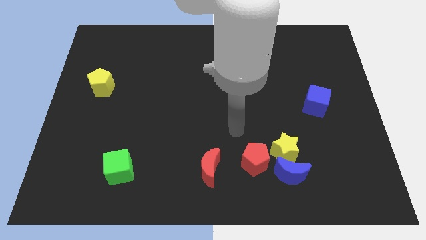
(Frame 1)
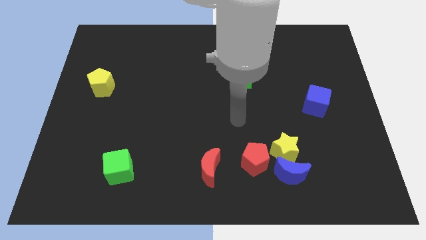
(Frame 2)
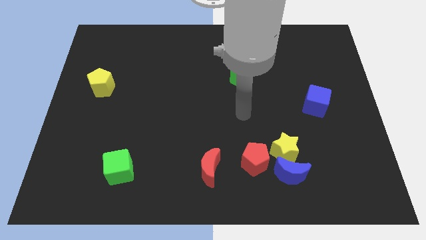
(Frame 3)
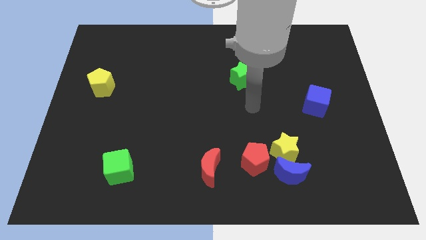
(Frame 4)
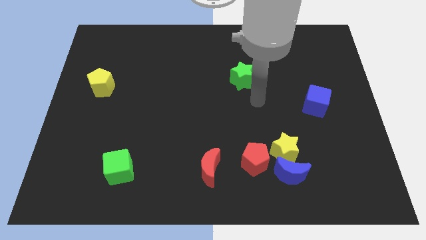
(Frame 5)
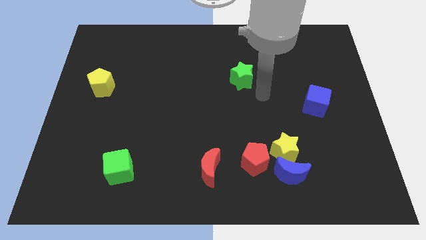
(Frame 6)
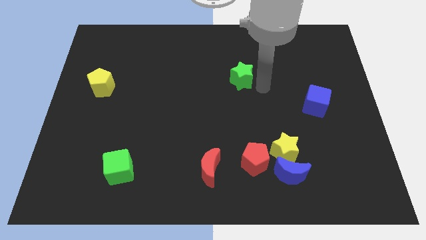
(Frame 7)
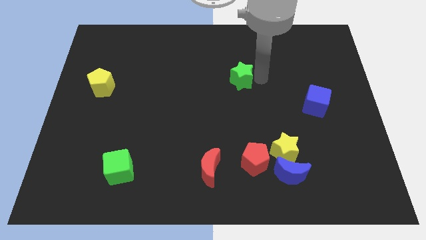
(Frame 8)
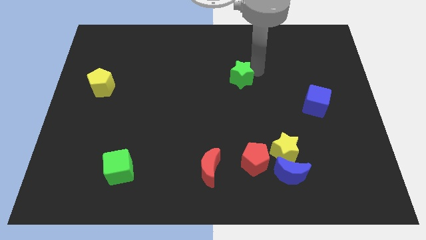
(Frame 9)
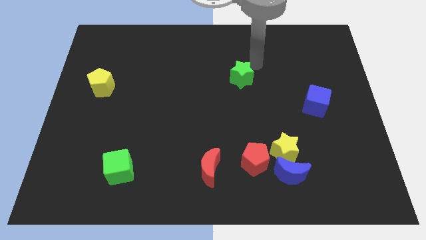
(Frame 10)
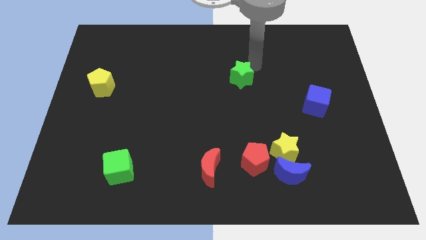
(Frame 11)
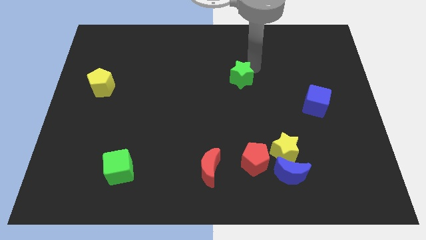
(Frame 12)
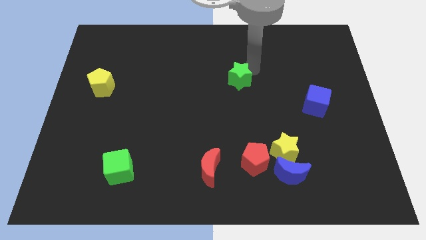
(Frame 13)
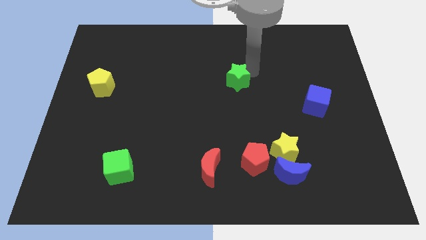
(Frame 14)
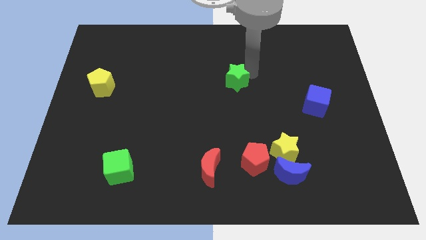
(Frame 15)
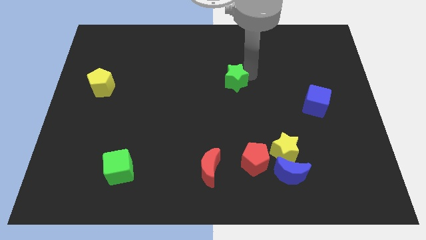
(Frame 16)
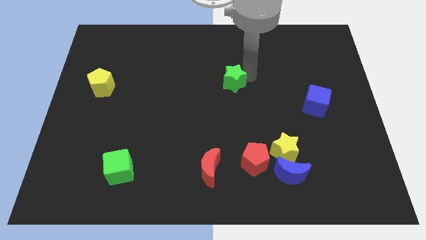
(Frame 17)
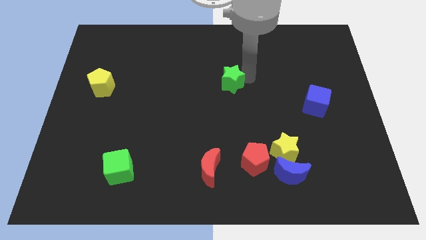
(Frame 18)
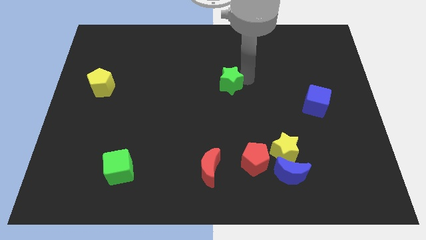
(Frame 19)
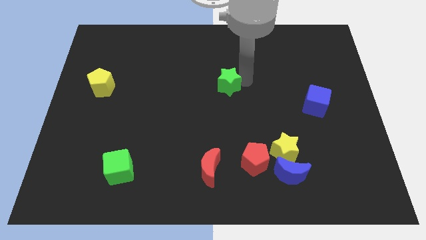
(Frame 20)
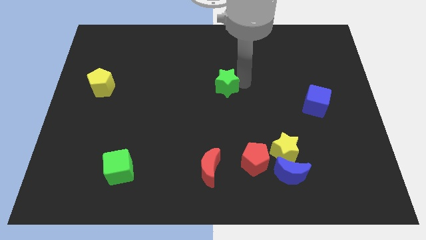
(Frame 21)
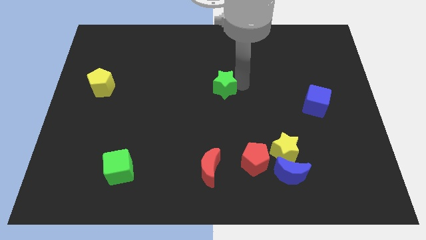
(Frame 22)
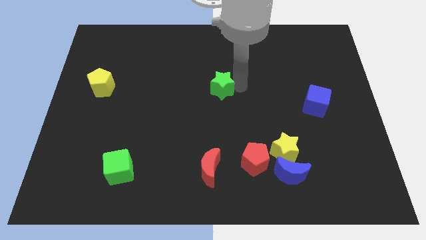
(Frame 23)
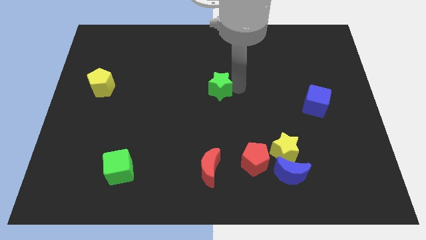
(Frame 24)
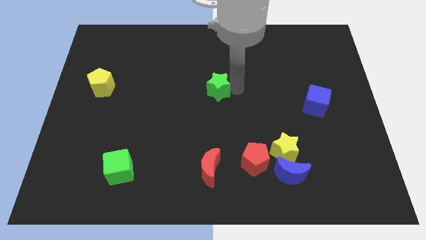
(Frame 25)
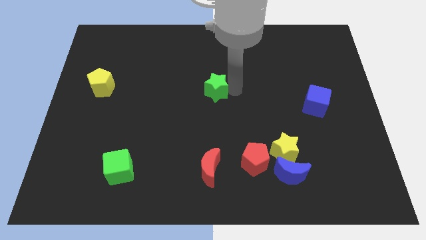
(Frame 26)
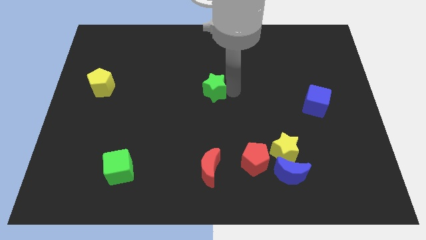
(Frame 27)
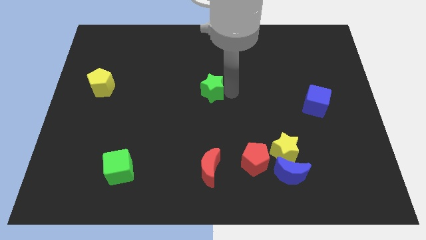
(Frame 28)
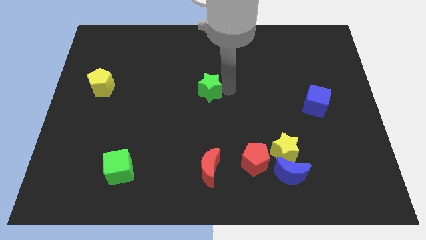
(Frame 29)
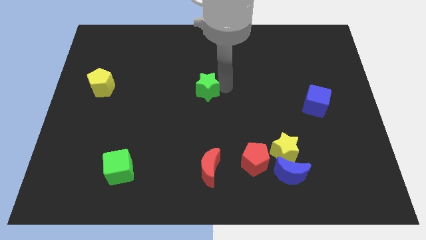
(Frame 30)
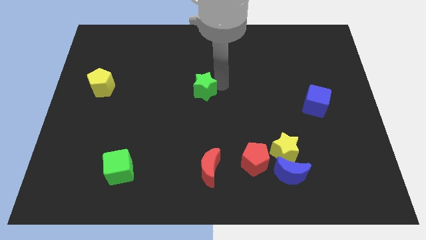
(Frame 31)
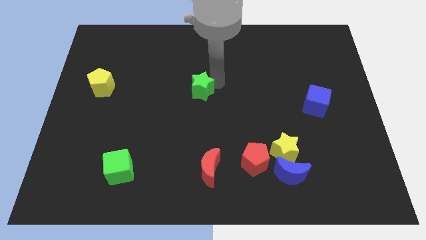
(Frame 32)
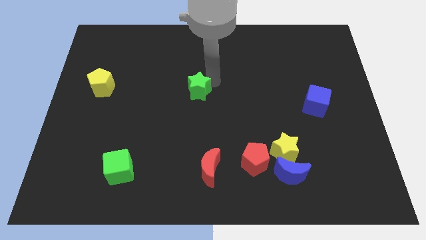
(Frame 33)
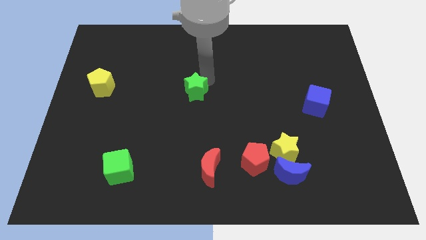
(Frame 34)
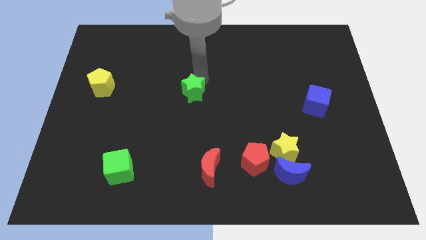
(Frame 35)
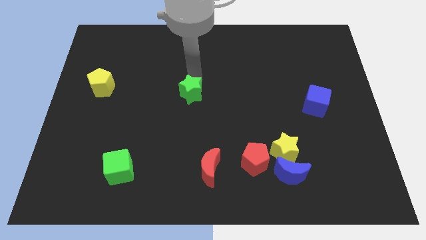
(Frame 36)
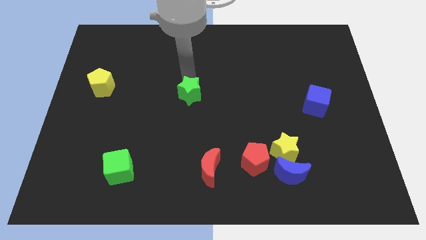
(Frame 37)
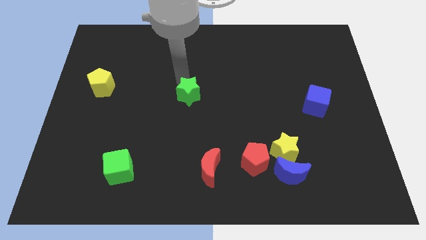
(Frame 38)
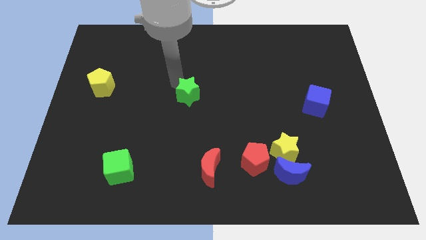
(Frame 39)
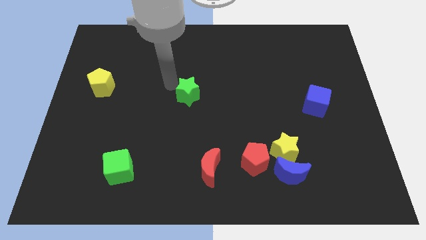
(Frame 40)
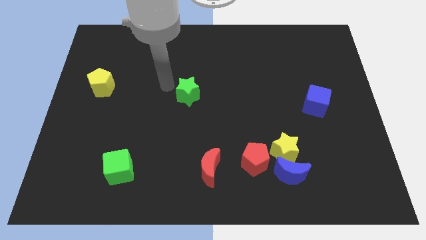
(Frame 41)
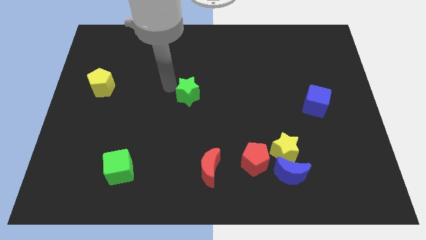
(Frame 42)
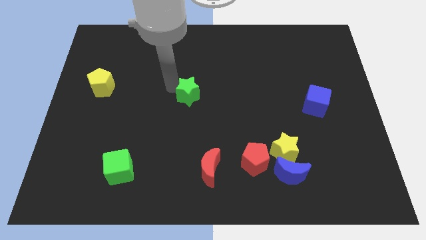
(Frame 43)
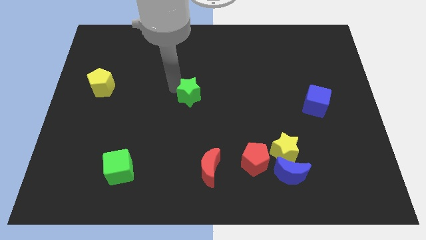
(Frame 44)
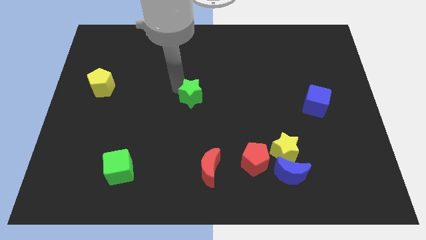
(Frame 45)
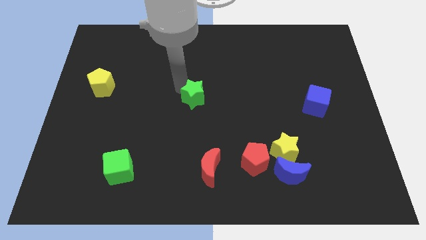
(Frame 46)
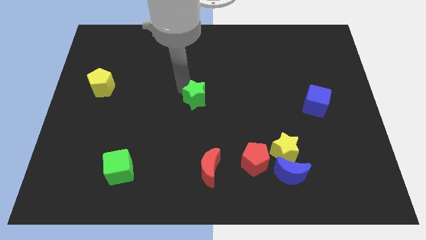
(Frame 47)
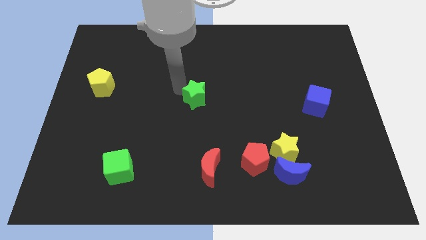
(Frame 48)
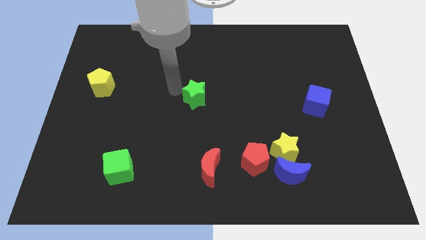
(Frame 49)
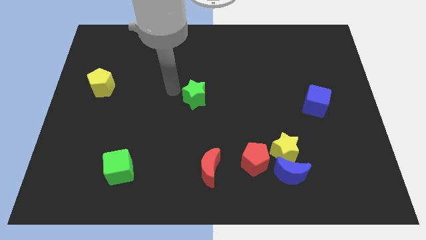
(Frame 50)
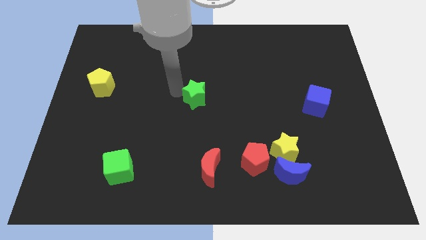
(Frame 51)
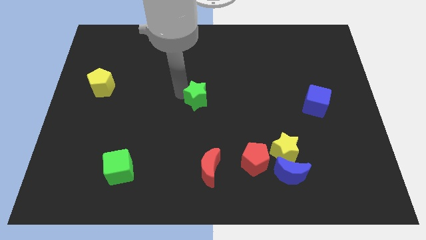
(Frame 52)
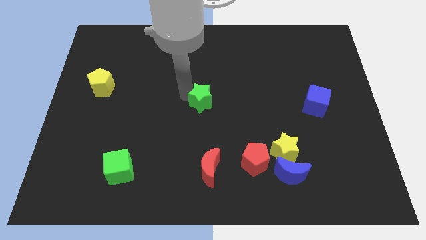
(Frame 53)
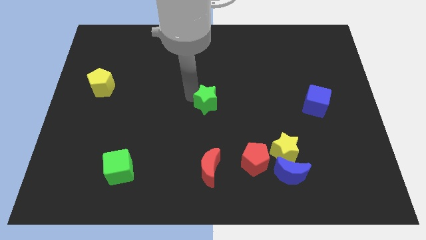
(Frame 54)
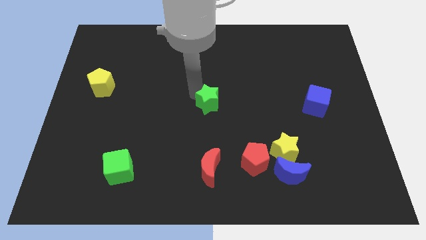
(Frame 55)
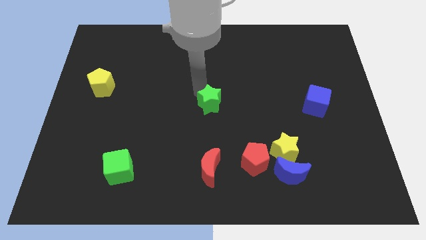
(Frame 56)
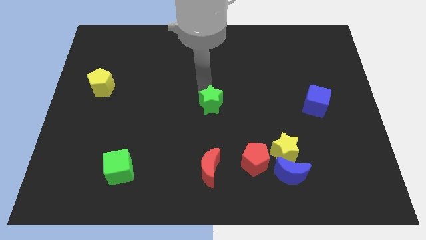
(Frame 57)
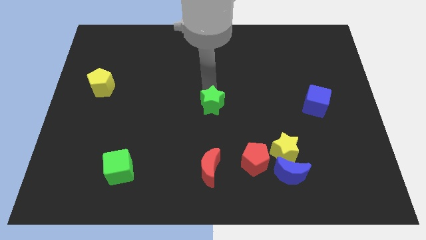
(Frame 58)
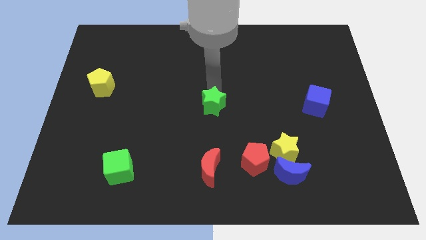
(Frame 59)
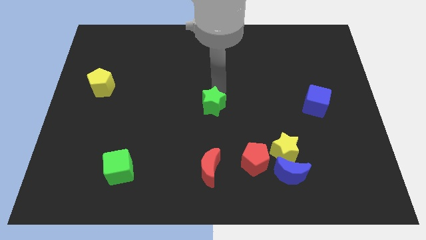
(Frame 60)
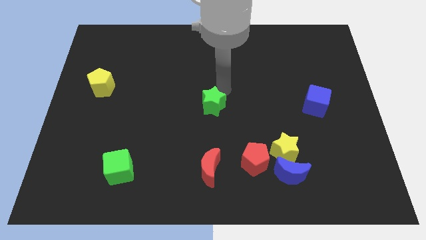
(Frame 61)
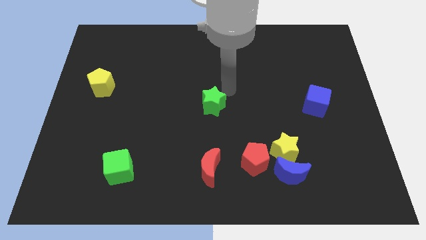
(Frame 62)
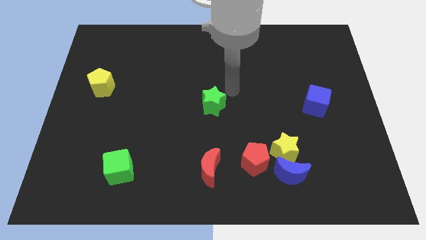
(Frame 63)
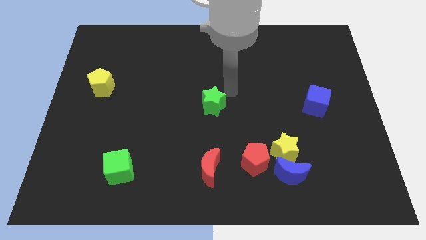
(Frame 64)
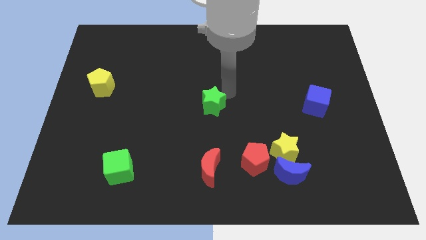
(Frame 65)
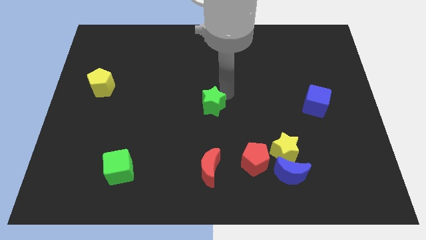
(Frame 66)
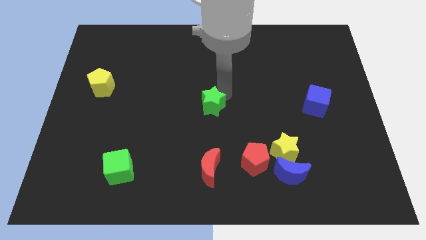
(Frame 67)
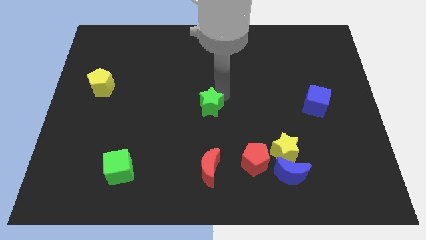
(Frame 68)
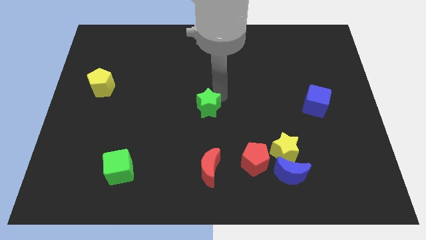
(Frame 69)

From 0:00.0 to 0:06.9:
put the green star to the top side of the red moon
